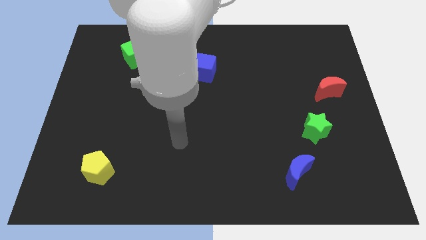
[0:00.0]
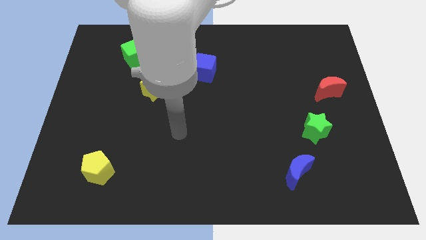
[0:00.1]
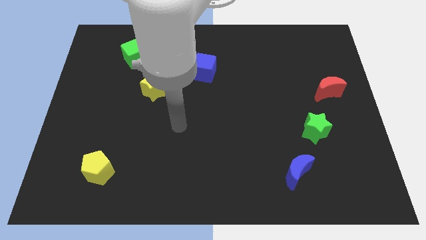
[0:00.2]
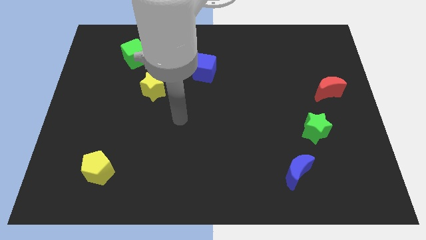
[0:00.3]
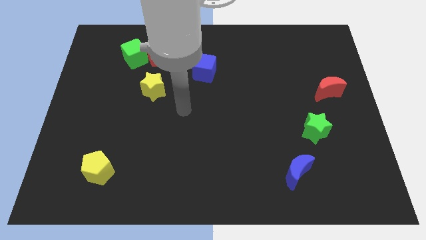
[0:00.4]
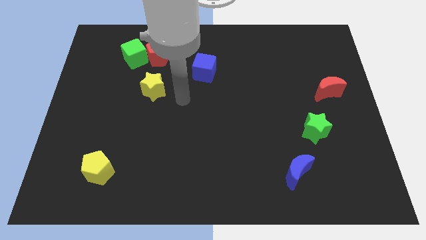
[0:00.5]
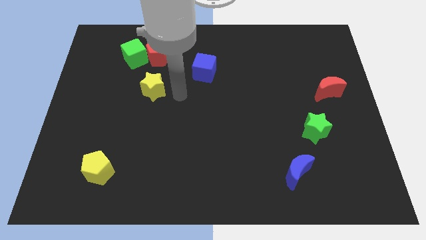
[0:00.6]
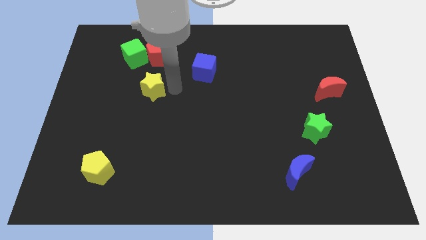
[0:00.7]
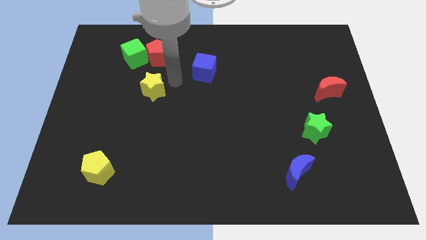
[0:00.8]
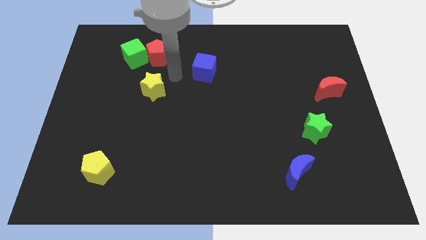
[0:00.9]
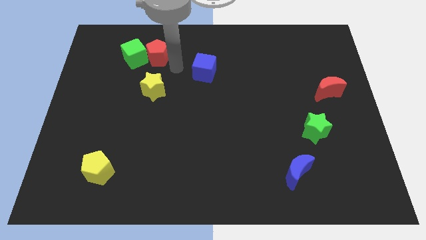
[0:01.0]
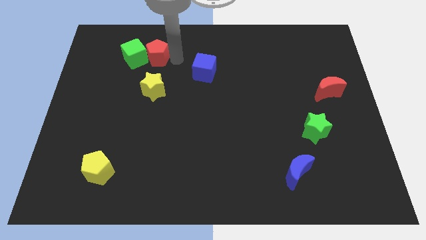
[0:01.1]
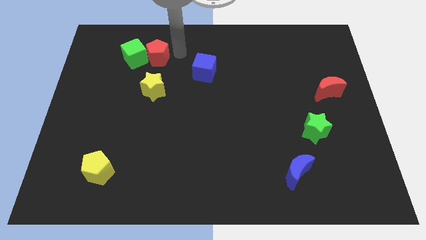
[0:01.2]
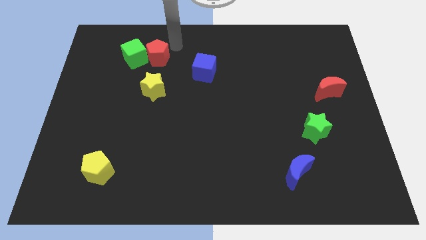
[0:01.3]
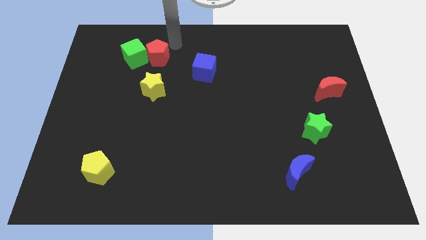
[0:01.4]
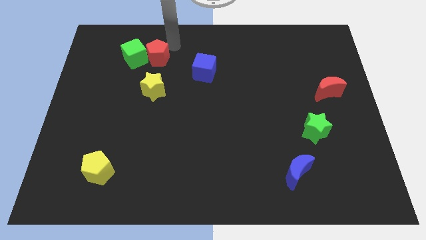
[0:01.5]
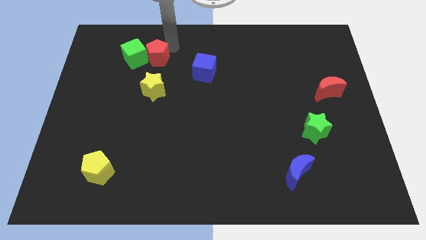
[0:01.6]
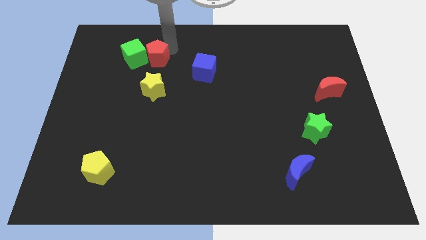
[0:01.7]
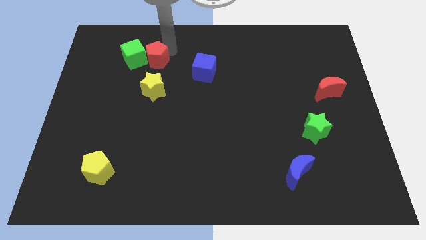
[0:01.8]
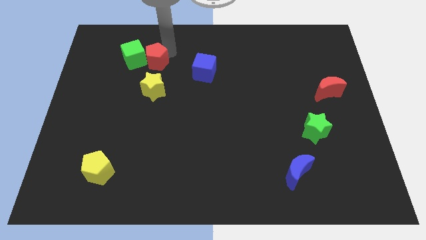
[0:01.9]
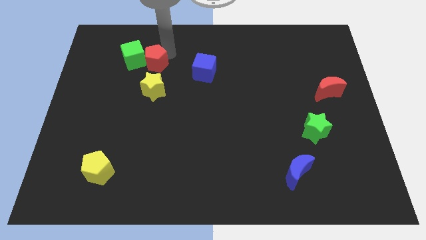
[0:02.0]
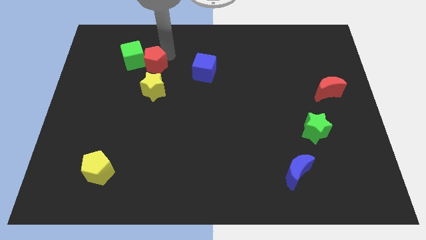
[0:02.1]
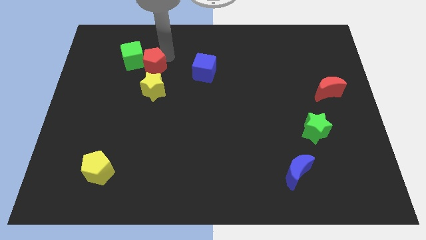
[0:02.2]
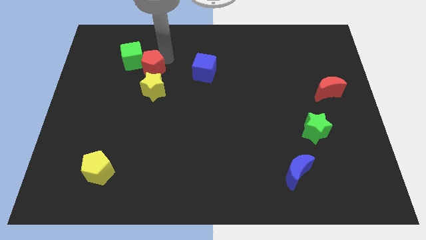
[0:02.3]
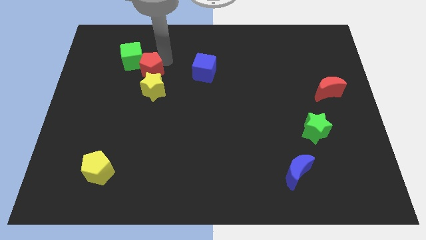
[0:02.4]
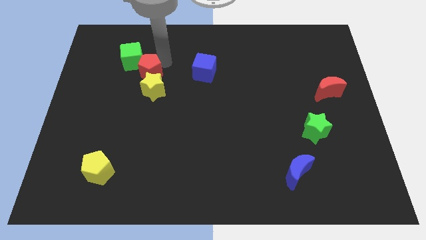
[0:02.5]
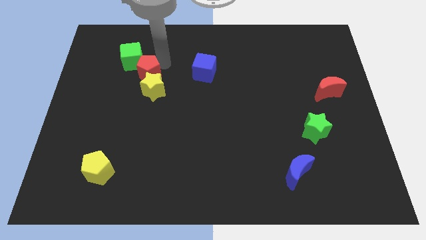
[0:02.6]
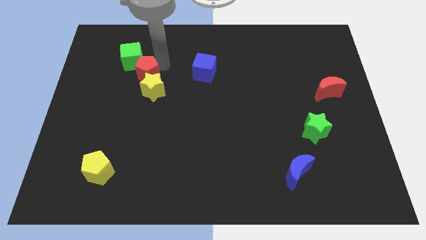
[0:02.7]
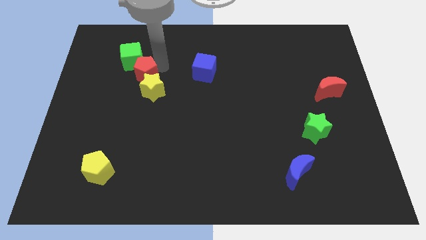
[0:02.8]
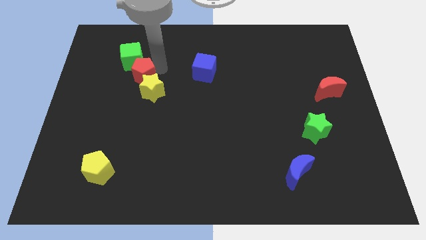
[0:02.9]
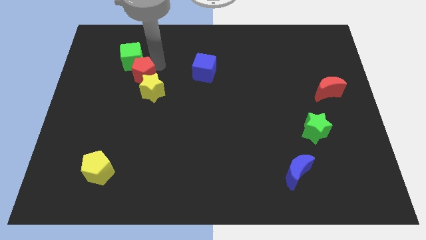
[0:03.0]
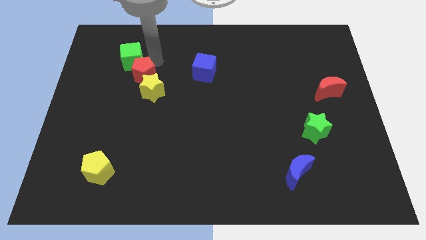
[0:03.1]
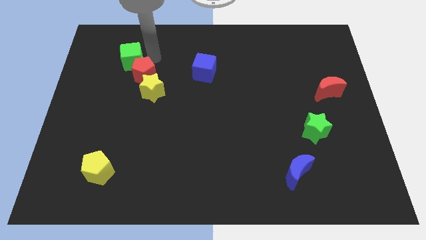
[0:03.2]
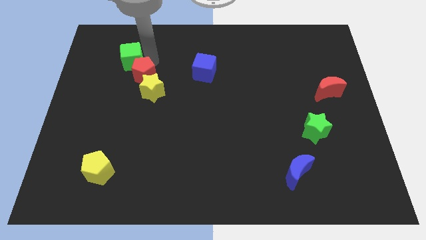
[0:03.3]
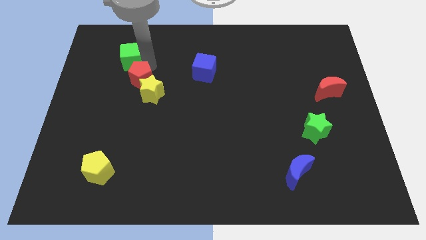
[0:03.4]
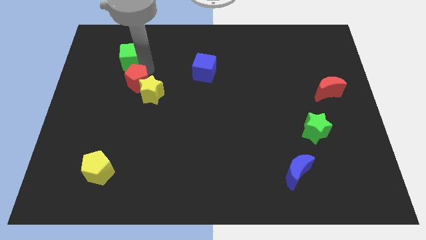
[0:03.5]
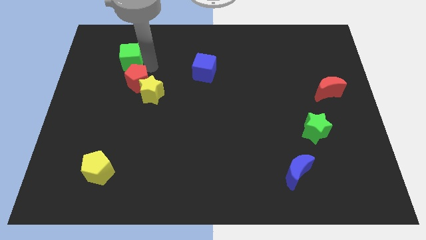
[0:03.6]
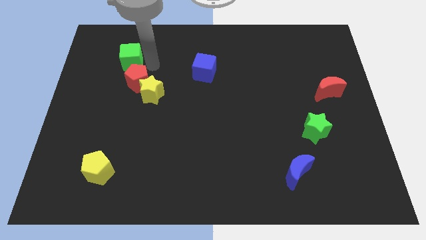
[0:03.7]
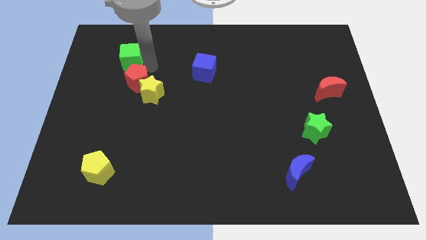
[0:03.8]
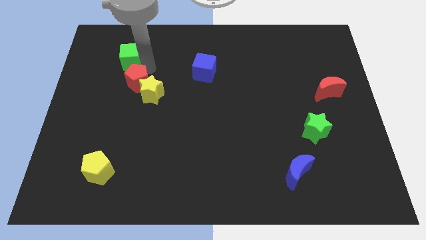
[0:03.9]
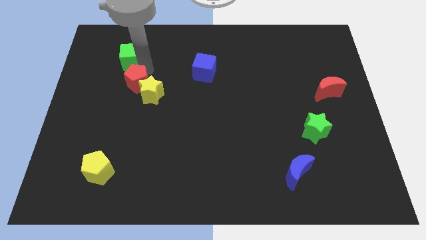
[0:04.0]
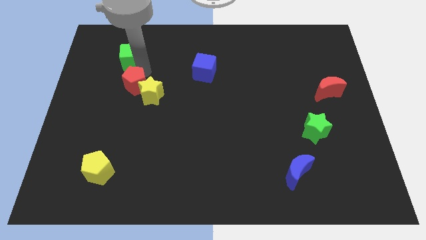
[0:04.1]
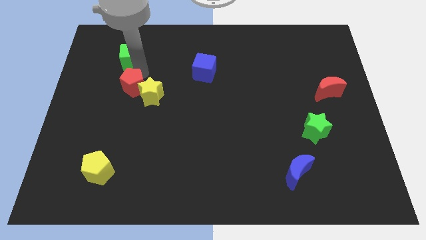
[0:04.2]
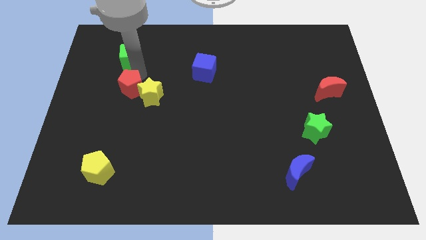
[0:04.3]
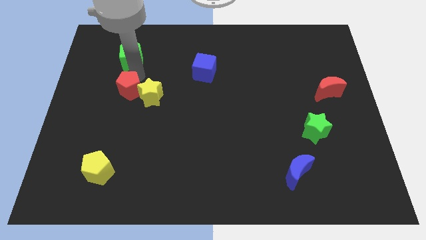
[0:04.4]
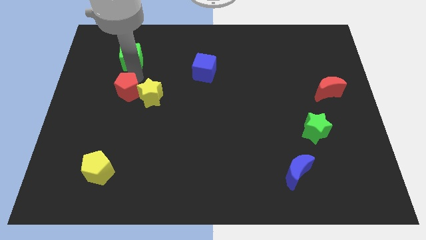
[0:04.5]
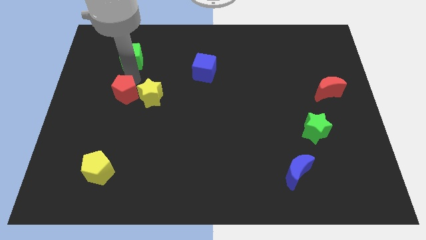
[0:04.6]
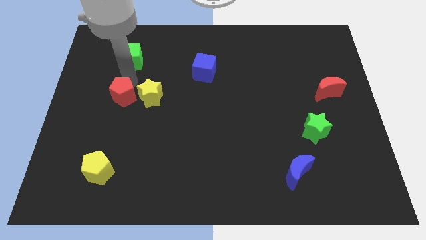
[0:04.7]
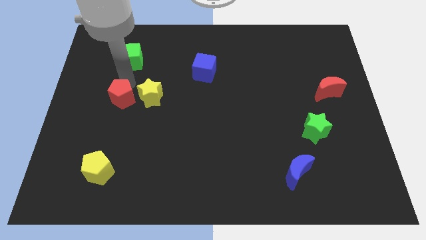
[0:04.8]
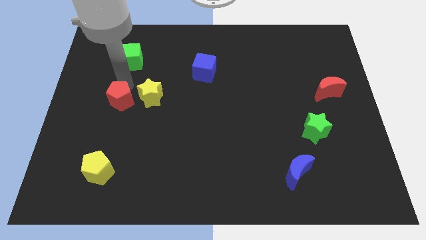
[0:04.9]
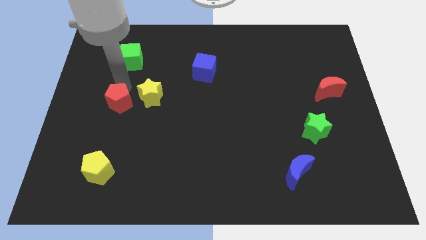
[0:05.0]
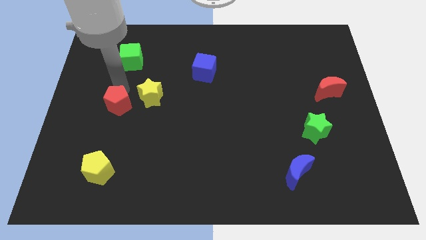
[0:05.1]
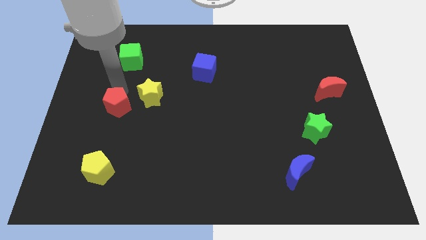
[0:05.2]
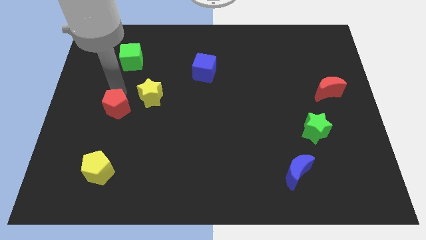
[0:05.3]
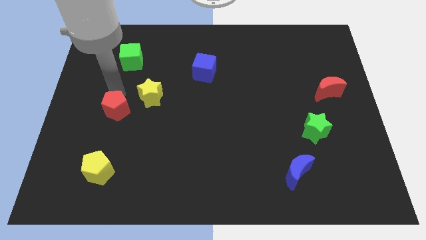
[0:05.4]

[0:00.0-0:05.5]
move the red pentagon above the yellow pentagon
